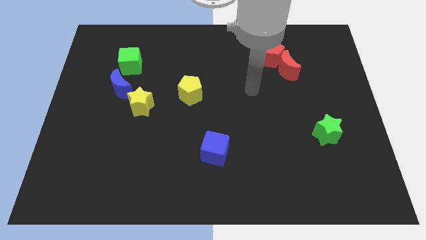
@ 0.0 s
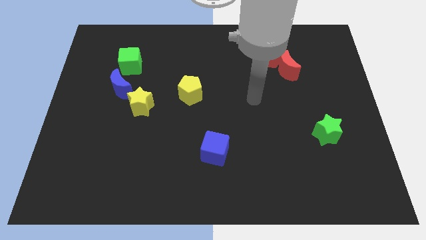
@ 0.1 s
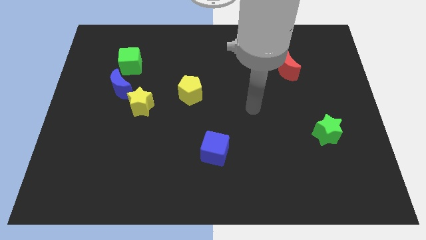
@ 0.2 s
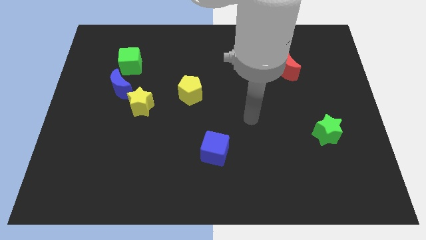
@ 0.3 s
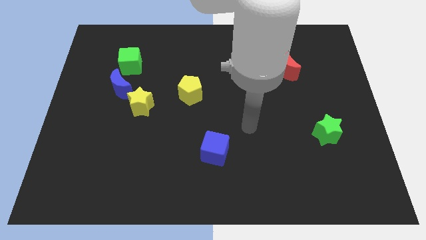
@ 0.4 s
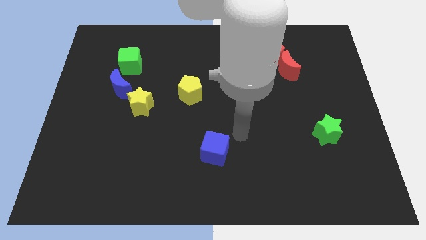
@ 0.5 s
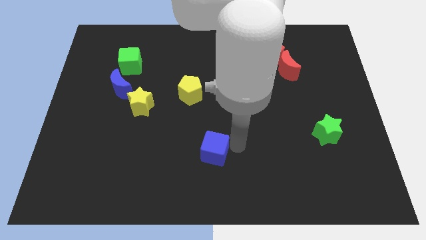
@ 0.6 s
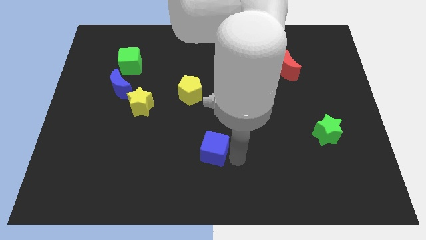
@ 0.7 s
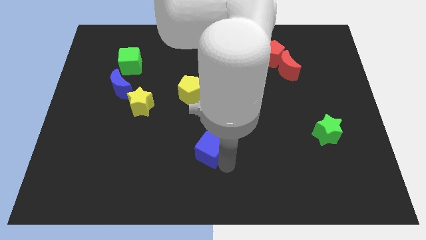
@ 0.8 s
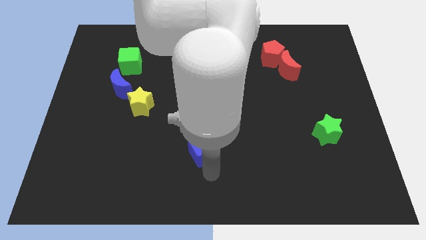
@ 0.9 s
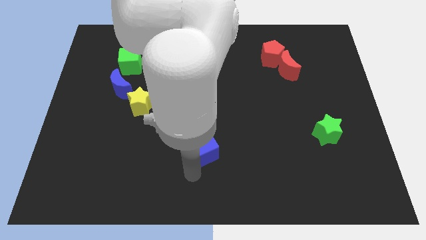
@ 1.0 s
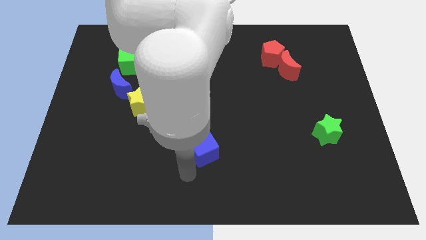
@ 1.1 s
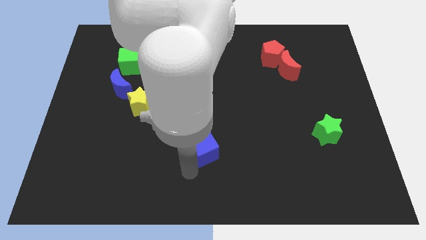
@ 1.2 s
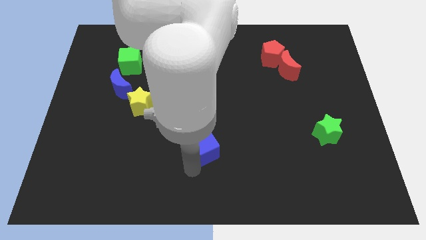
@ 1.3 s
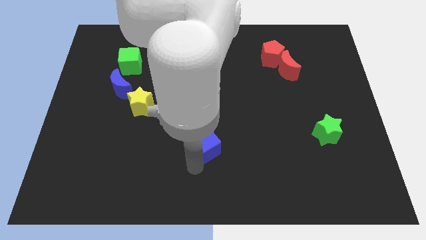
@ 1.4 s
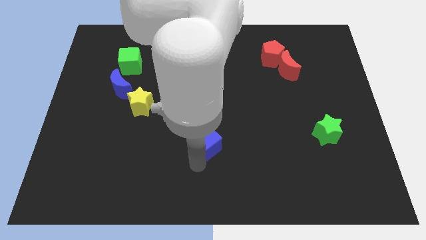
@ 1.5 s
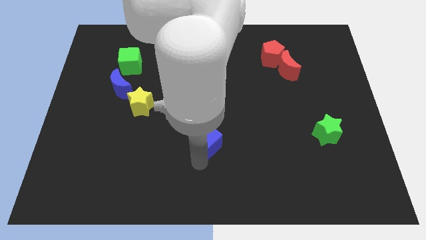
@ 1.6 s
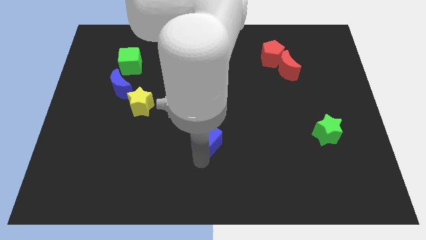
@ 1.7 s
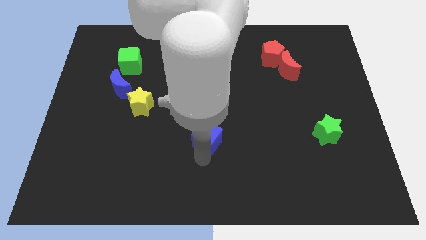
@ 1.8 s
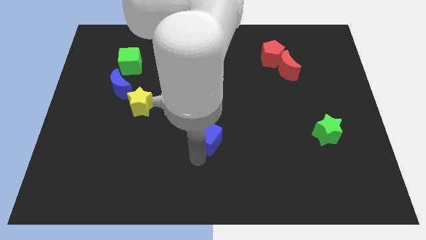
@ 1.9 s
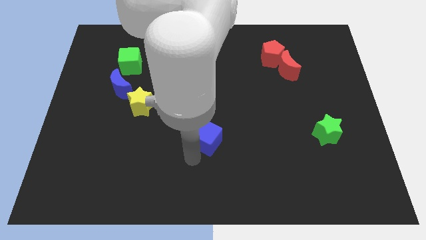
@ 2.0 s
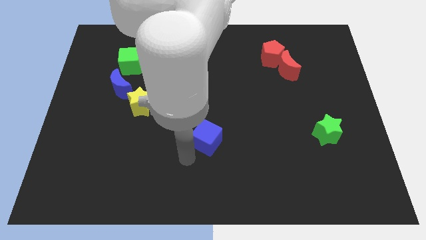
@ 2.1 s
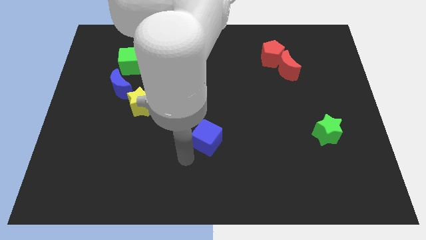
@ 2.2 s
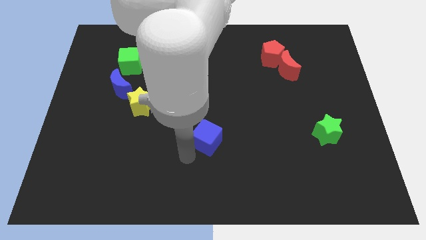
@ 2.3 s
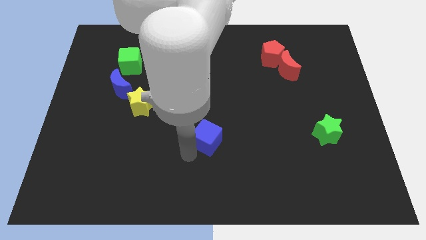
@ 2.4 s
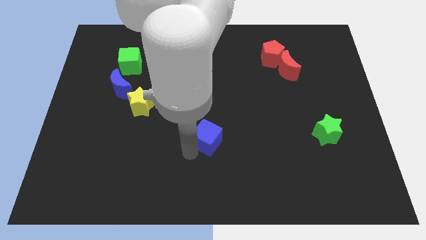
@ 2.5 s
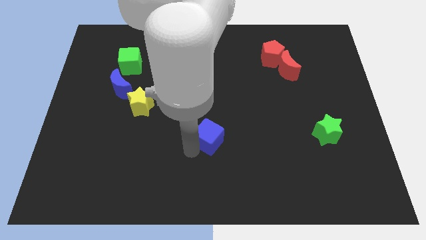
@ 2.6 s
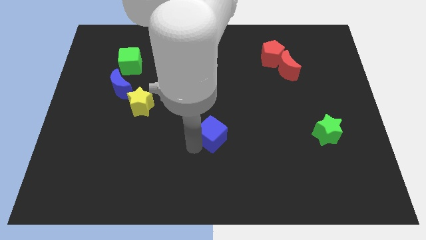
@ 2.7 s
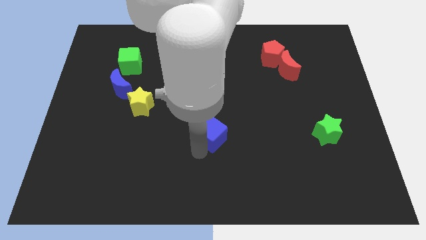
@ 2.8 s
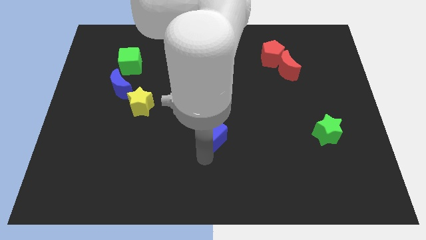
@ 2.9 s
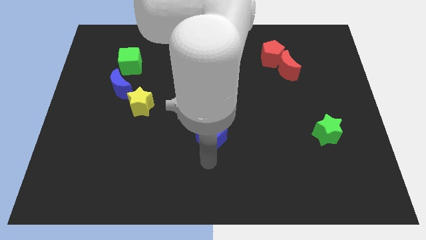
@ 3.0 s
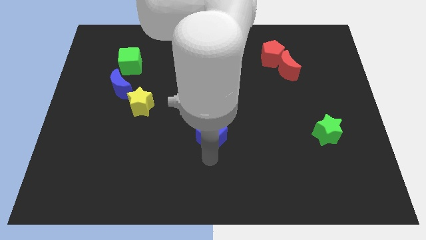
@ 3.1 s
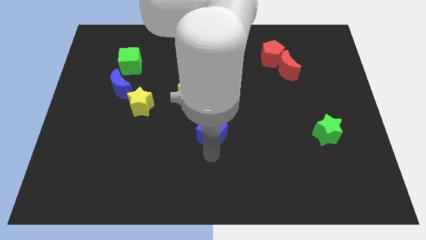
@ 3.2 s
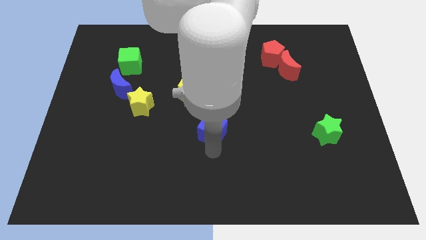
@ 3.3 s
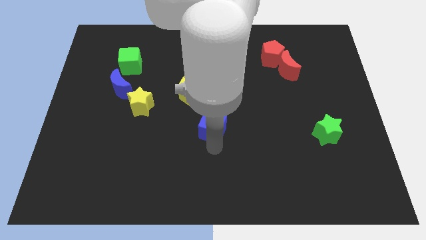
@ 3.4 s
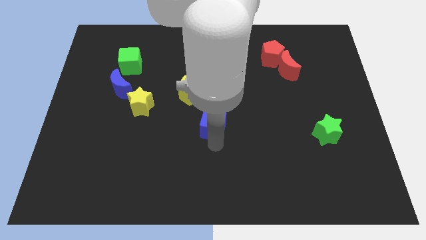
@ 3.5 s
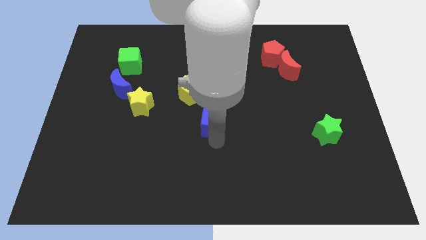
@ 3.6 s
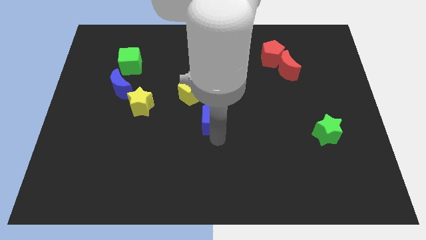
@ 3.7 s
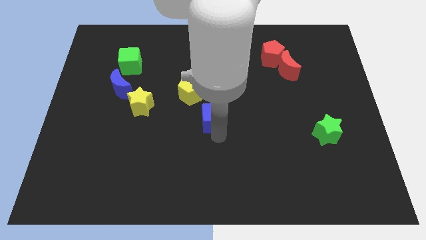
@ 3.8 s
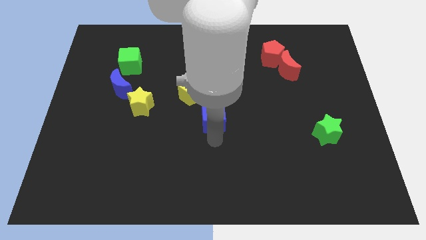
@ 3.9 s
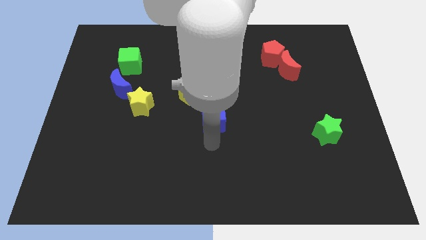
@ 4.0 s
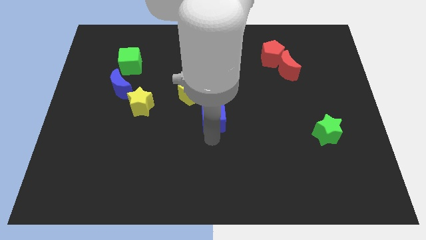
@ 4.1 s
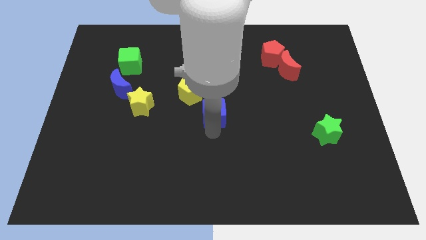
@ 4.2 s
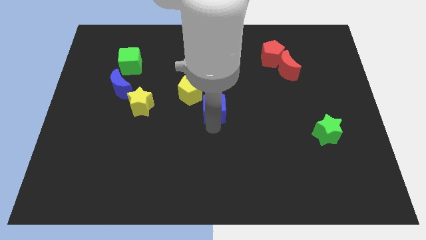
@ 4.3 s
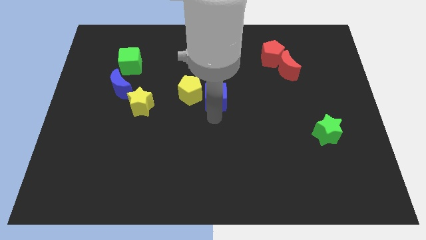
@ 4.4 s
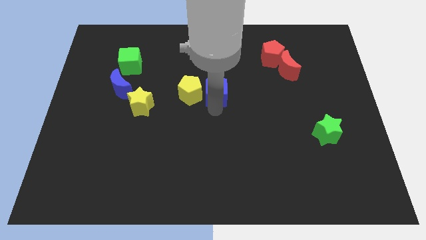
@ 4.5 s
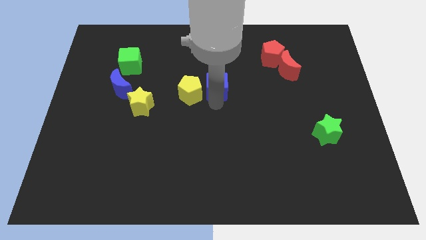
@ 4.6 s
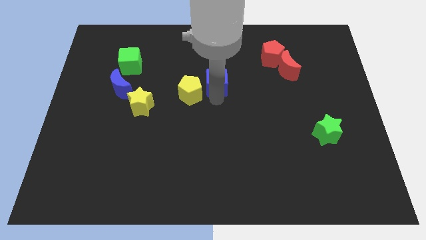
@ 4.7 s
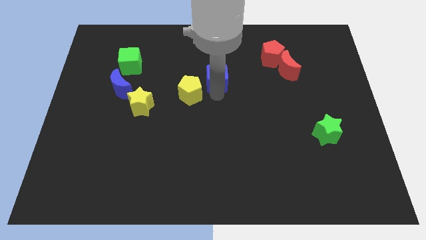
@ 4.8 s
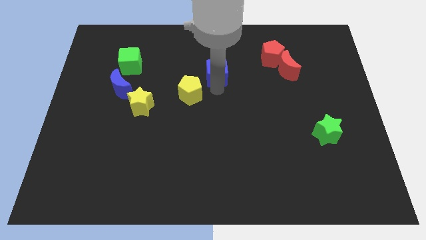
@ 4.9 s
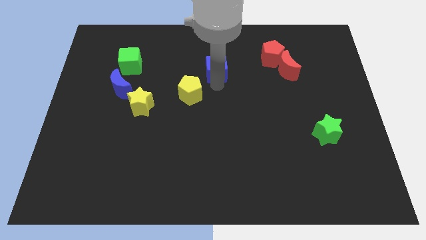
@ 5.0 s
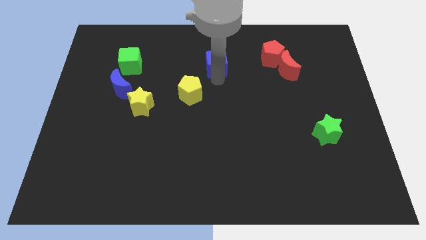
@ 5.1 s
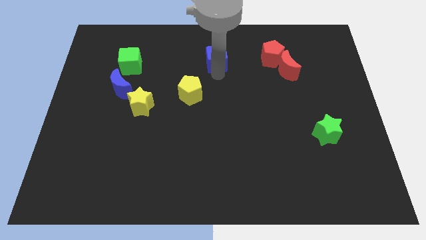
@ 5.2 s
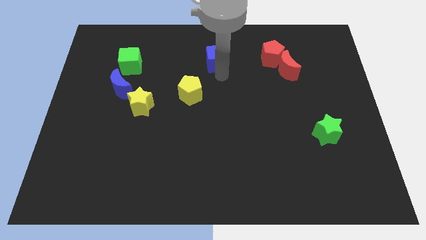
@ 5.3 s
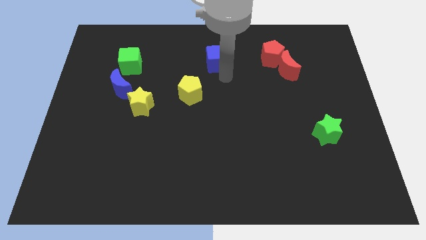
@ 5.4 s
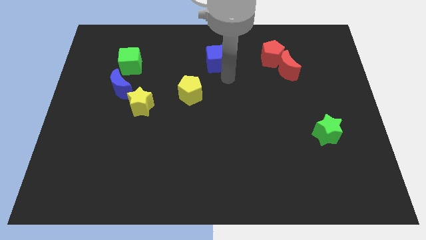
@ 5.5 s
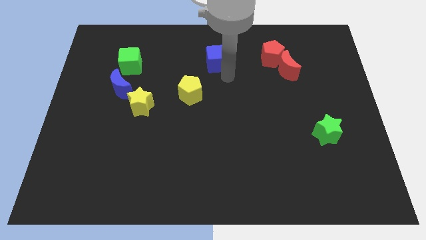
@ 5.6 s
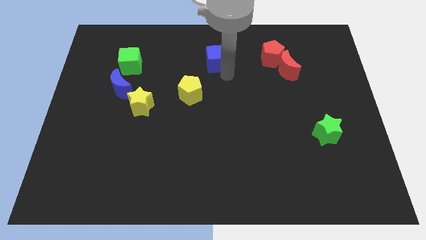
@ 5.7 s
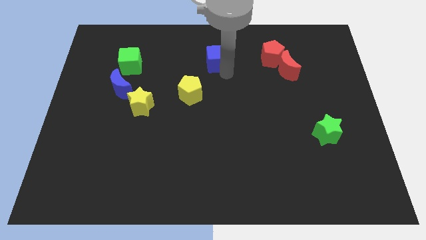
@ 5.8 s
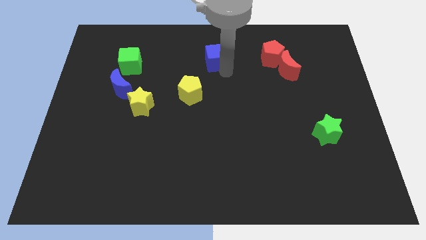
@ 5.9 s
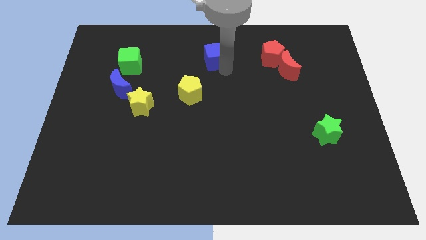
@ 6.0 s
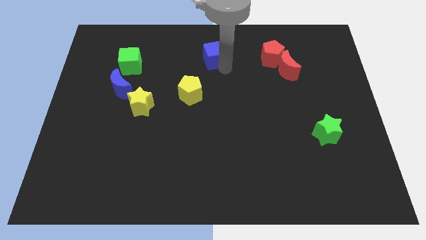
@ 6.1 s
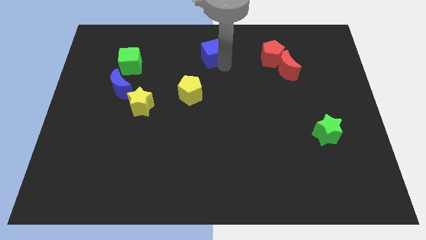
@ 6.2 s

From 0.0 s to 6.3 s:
move the blue cube to the towards your base

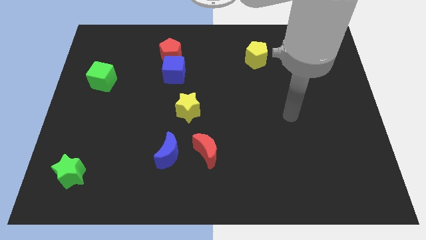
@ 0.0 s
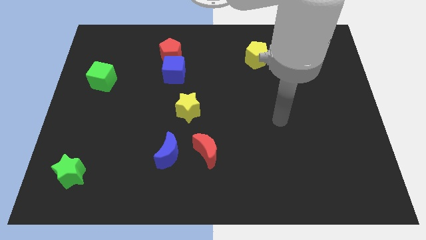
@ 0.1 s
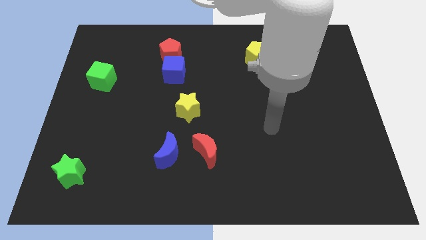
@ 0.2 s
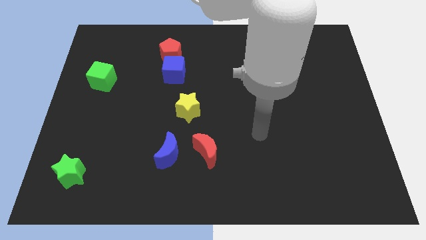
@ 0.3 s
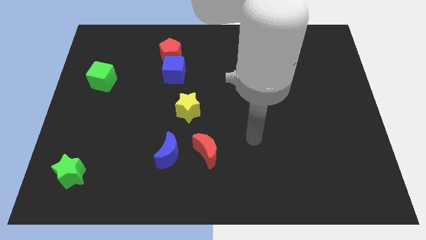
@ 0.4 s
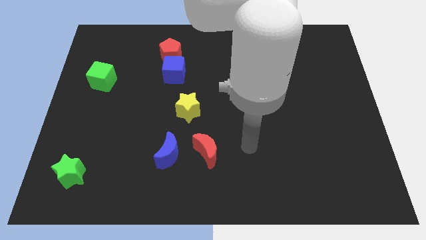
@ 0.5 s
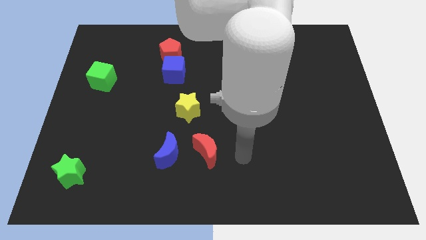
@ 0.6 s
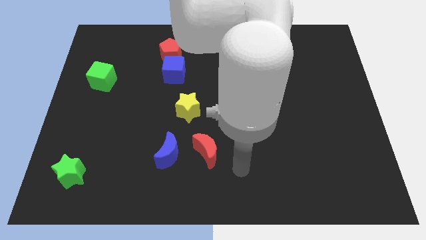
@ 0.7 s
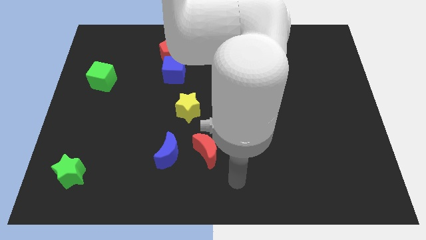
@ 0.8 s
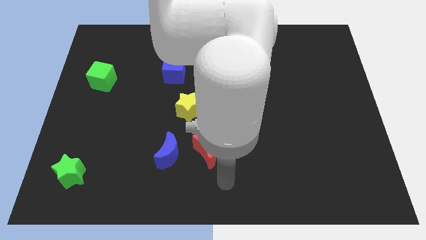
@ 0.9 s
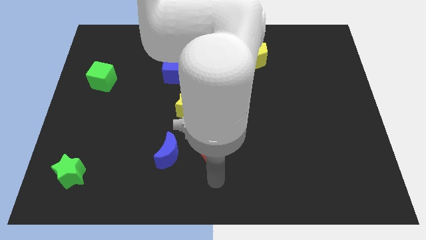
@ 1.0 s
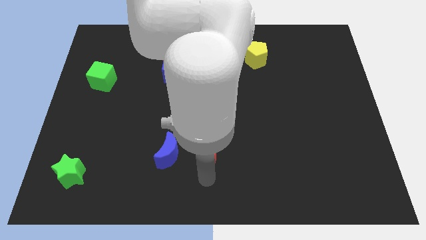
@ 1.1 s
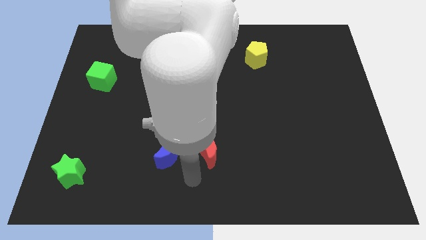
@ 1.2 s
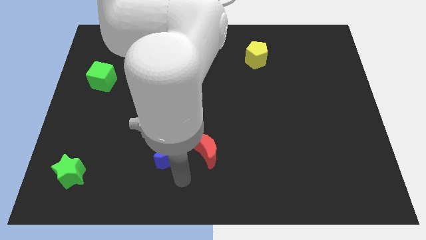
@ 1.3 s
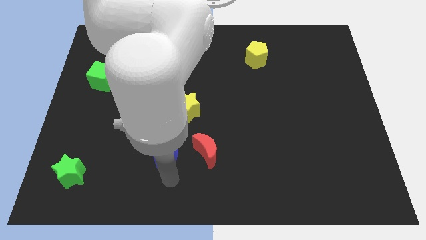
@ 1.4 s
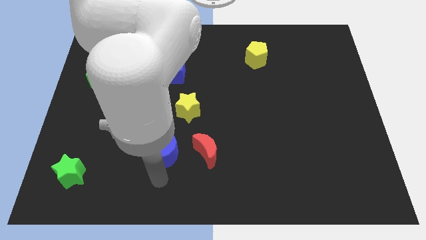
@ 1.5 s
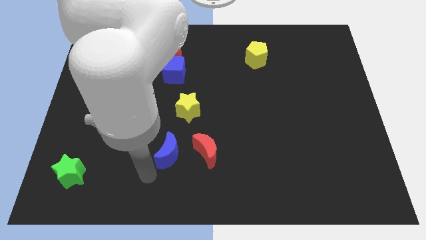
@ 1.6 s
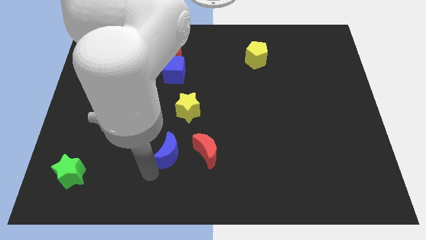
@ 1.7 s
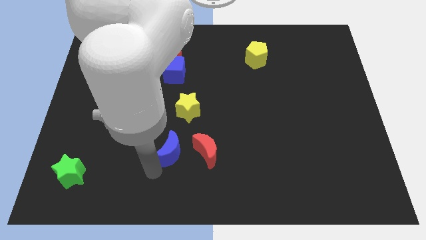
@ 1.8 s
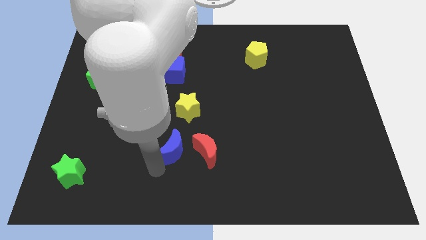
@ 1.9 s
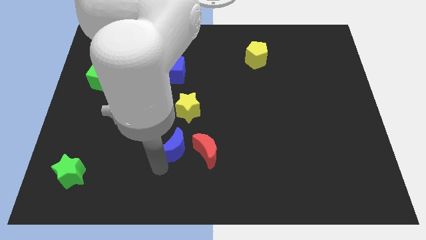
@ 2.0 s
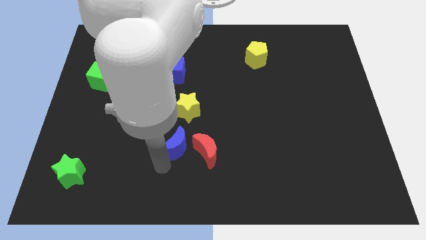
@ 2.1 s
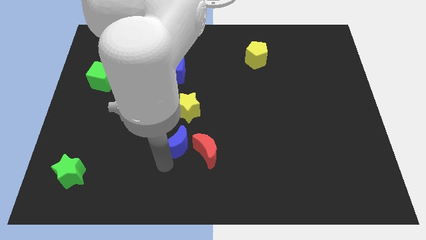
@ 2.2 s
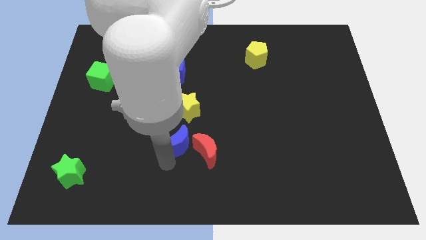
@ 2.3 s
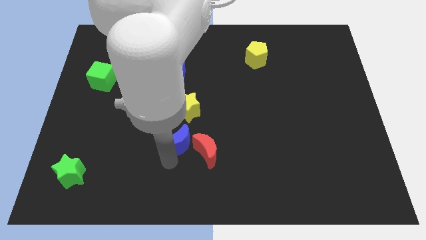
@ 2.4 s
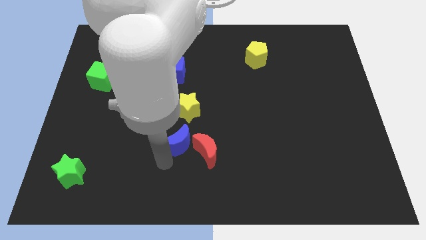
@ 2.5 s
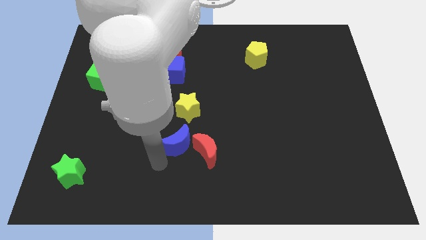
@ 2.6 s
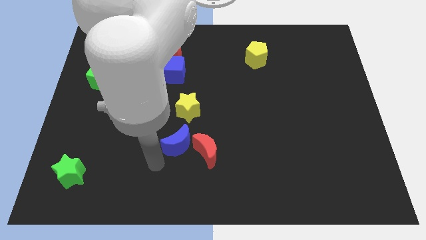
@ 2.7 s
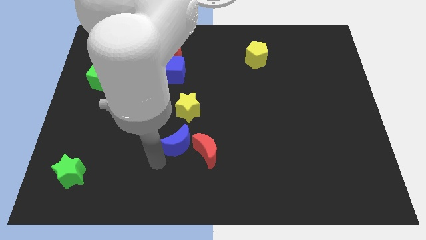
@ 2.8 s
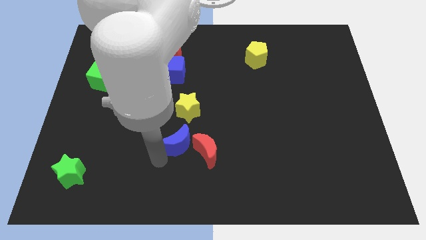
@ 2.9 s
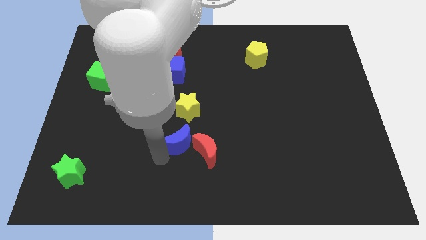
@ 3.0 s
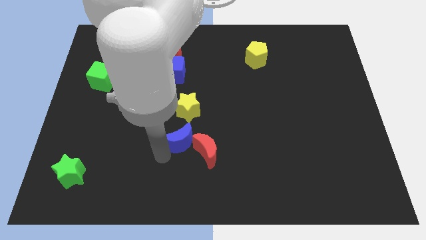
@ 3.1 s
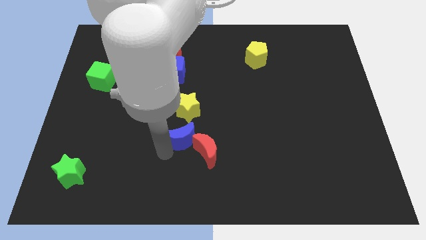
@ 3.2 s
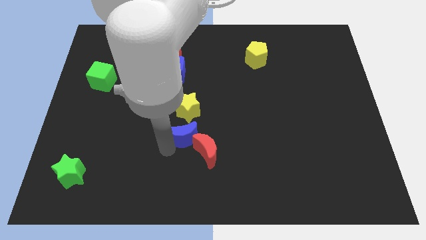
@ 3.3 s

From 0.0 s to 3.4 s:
move the blue moon to the middle
